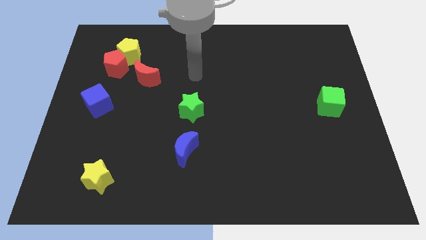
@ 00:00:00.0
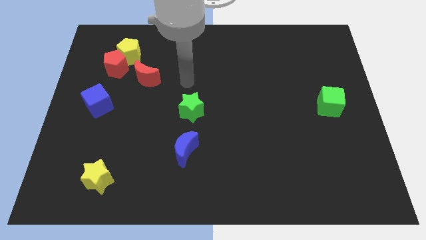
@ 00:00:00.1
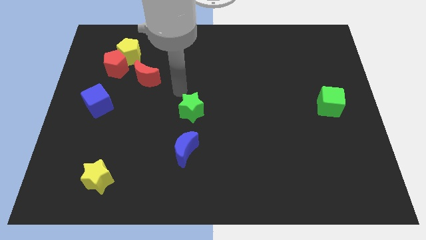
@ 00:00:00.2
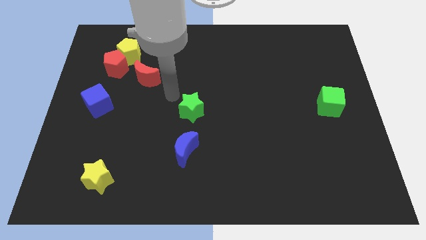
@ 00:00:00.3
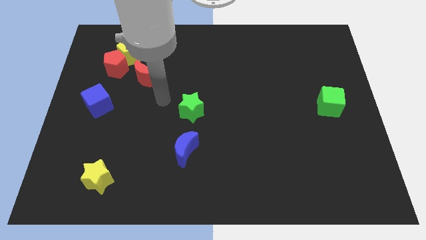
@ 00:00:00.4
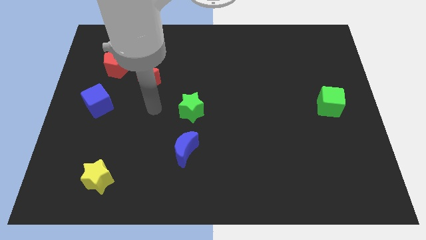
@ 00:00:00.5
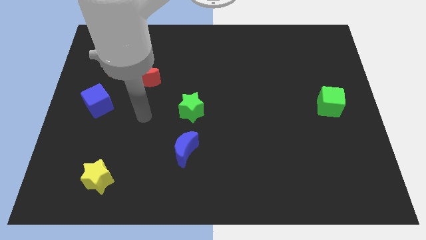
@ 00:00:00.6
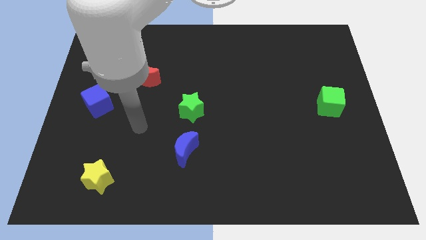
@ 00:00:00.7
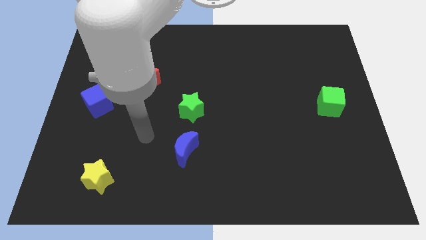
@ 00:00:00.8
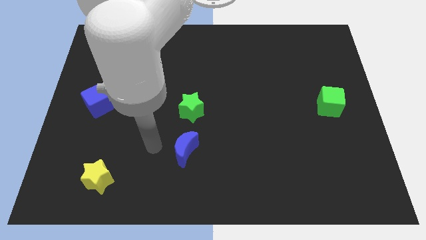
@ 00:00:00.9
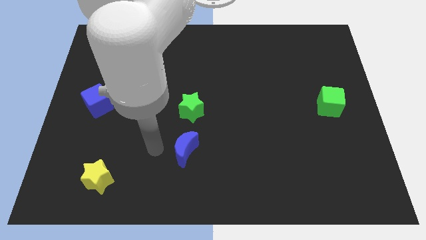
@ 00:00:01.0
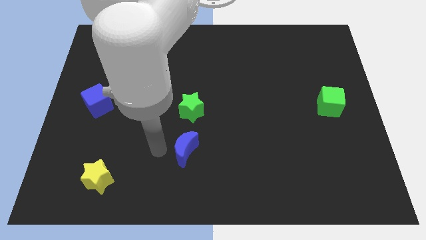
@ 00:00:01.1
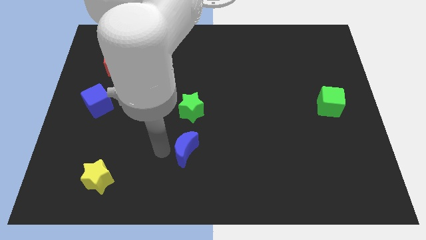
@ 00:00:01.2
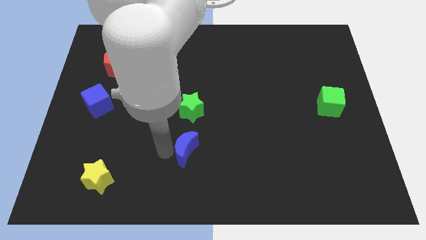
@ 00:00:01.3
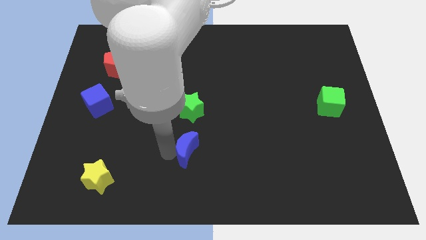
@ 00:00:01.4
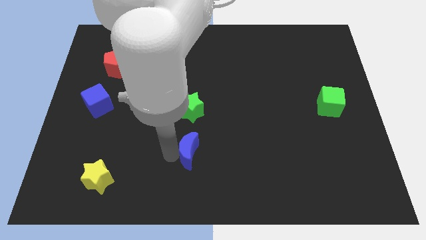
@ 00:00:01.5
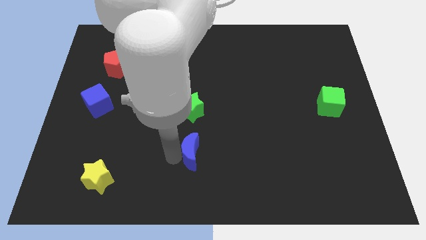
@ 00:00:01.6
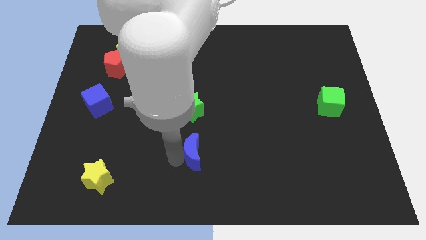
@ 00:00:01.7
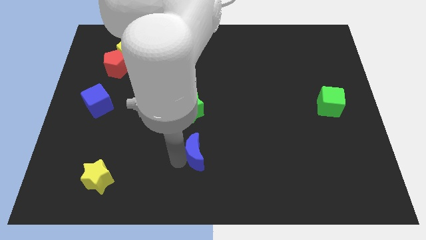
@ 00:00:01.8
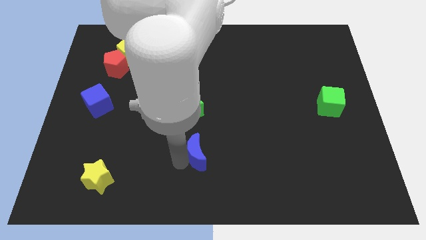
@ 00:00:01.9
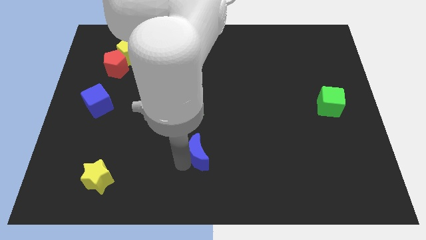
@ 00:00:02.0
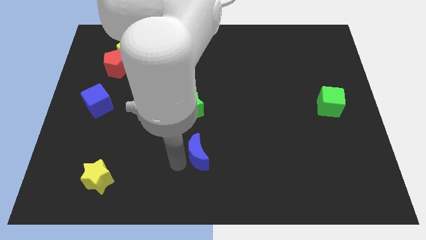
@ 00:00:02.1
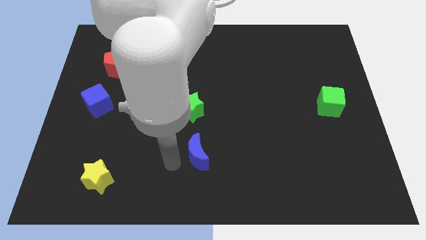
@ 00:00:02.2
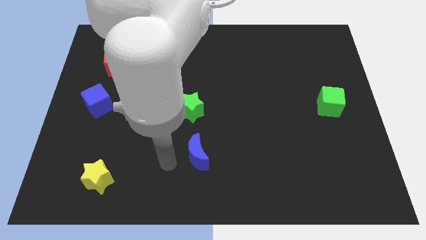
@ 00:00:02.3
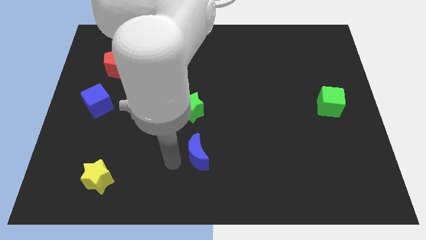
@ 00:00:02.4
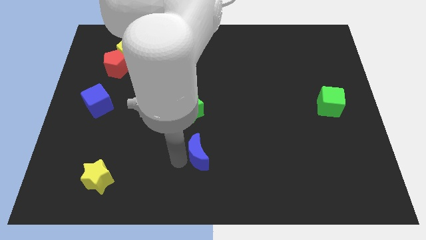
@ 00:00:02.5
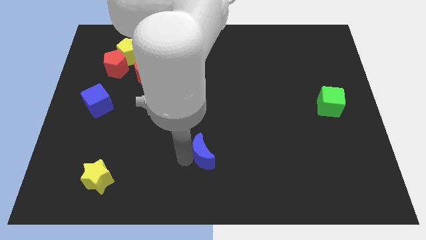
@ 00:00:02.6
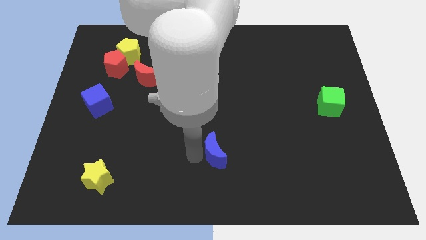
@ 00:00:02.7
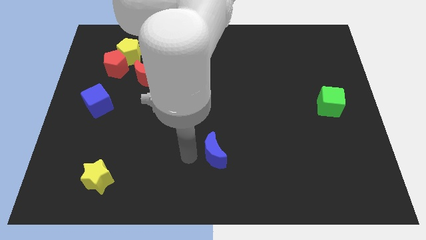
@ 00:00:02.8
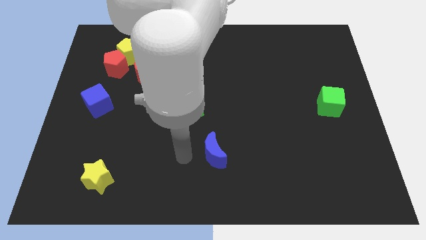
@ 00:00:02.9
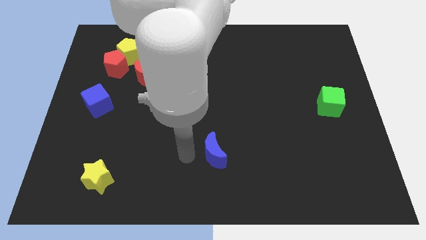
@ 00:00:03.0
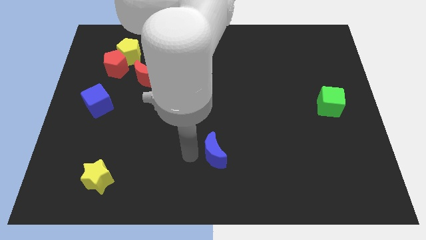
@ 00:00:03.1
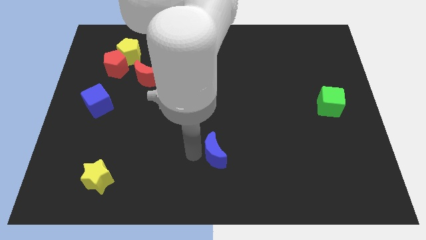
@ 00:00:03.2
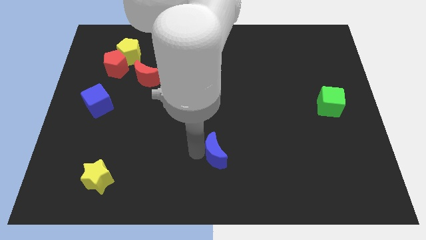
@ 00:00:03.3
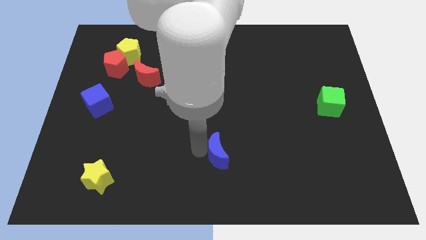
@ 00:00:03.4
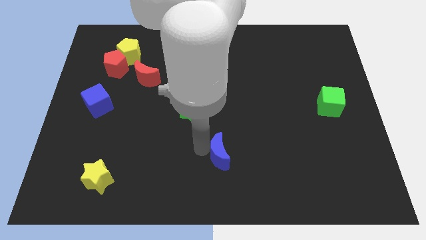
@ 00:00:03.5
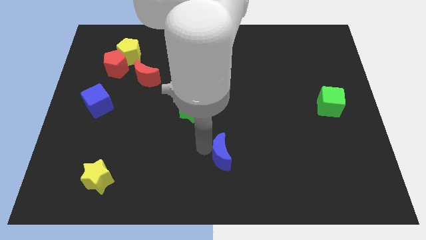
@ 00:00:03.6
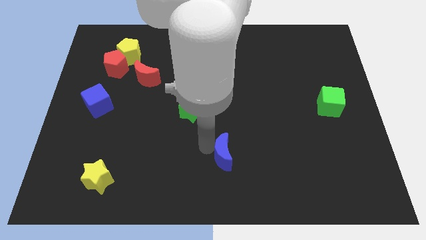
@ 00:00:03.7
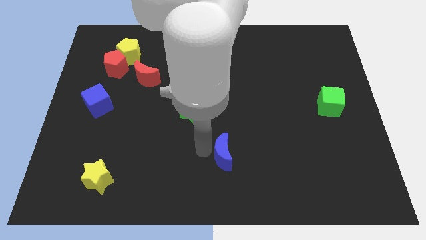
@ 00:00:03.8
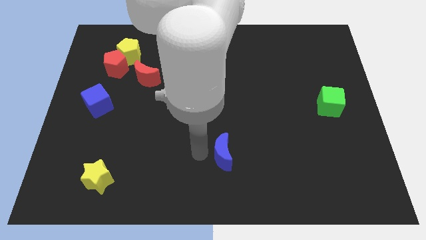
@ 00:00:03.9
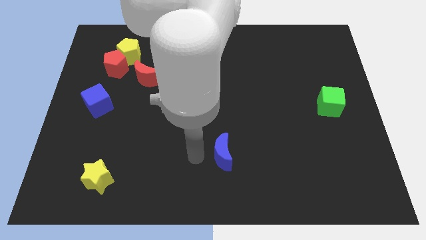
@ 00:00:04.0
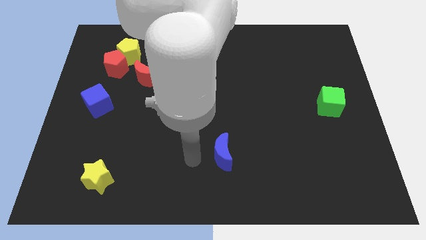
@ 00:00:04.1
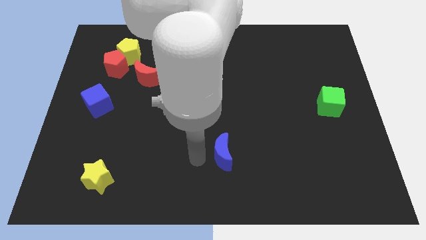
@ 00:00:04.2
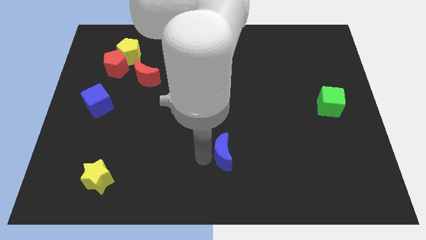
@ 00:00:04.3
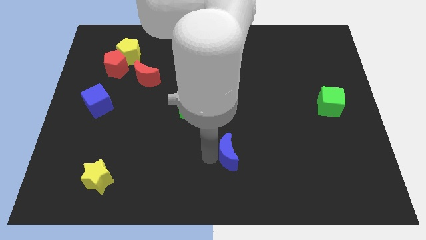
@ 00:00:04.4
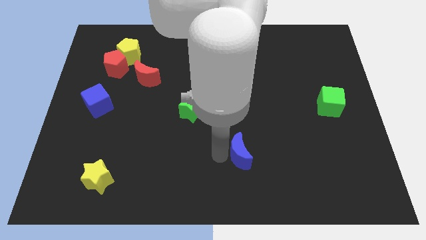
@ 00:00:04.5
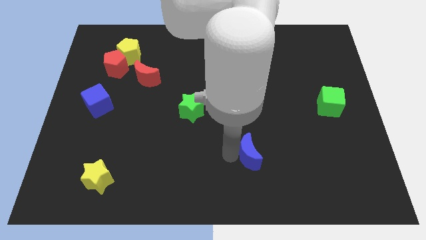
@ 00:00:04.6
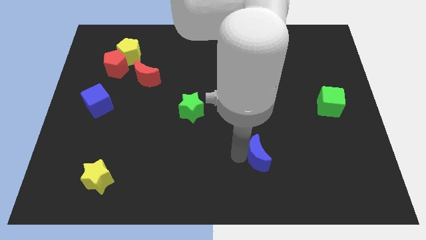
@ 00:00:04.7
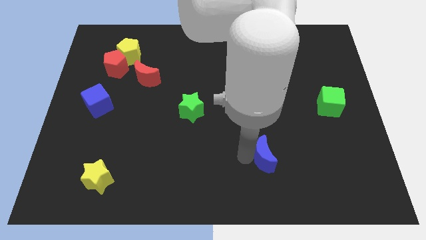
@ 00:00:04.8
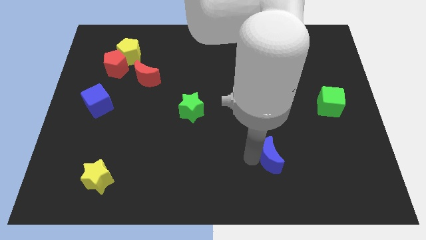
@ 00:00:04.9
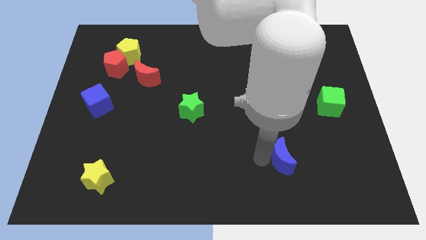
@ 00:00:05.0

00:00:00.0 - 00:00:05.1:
move the blue moon right

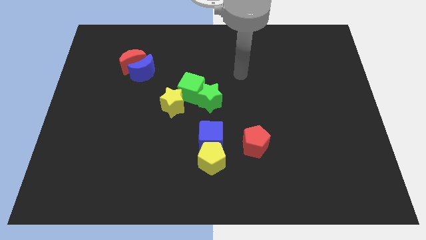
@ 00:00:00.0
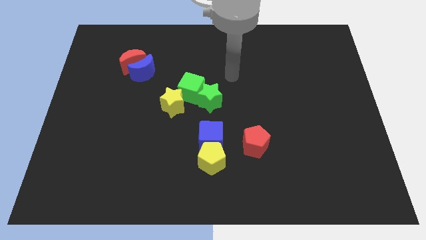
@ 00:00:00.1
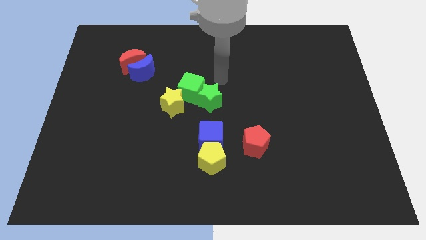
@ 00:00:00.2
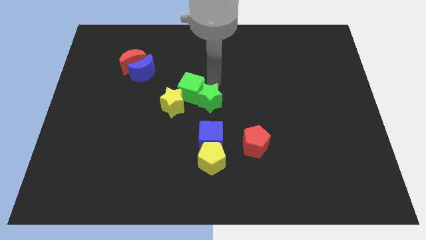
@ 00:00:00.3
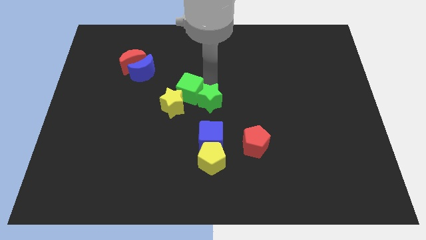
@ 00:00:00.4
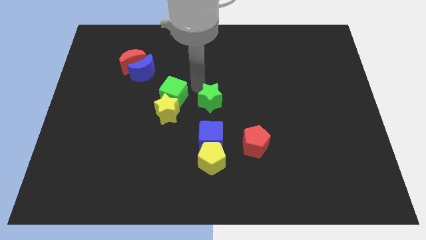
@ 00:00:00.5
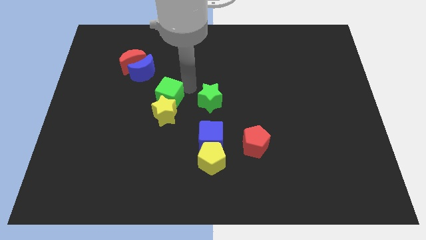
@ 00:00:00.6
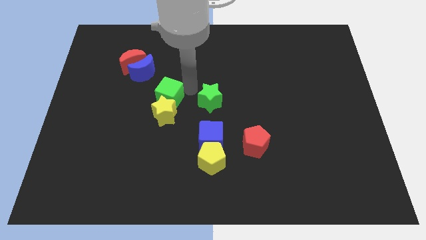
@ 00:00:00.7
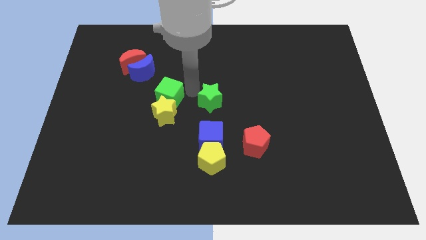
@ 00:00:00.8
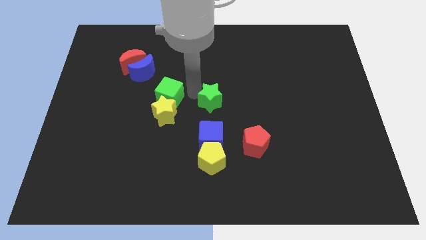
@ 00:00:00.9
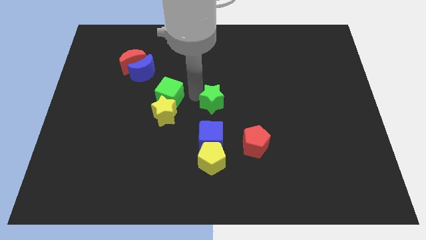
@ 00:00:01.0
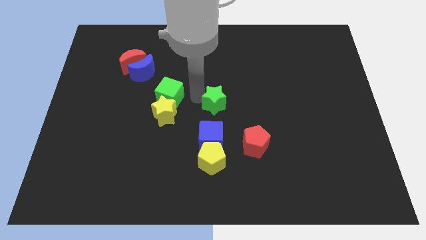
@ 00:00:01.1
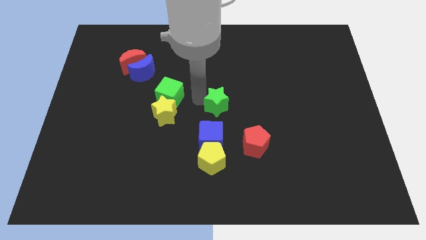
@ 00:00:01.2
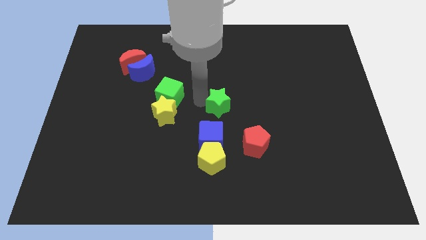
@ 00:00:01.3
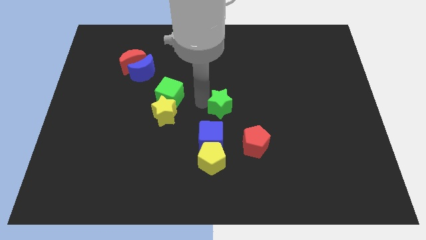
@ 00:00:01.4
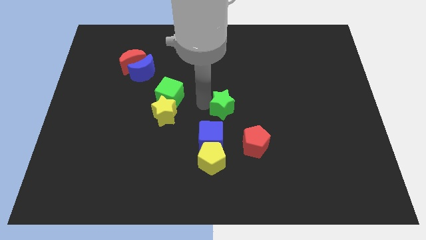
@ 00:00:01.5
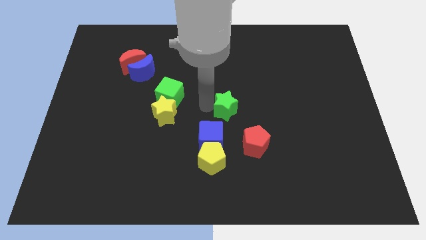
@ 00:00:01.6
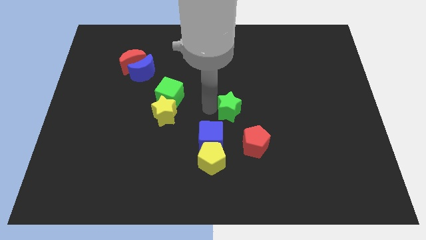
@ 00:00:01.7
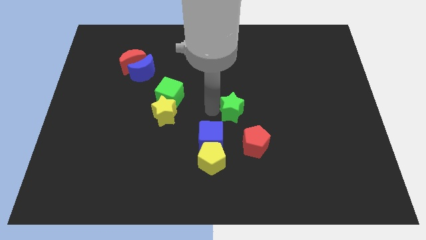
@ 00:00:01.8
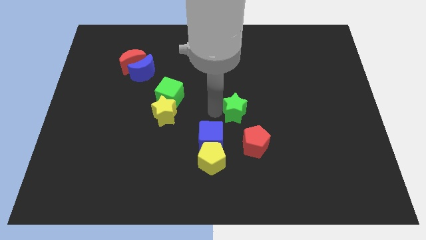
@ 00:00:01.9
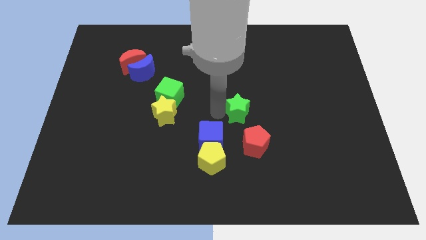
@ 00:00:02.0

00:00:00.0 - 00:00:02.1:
slide the green star a bit diagonally down and to the right

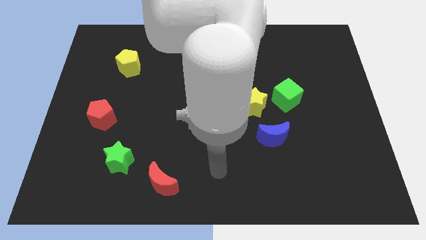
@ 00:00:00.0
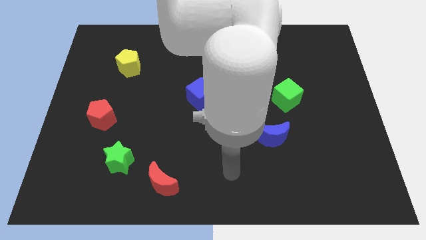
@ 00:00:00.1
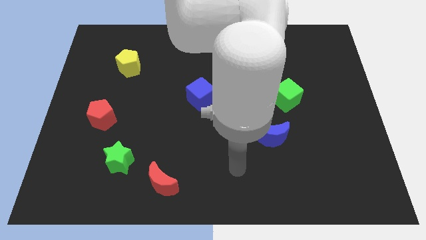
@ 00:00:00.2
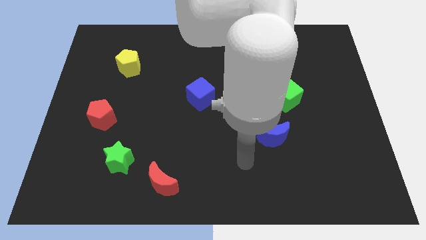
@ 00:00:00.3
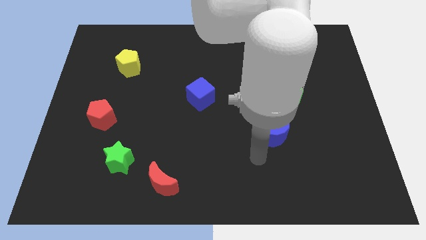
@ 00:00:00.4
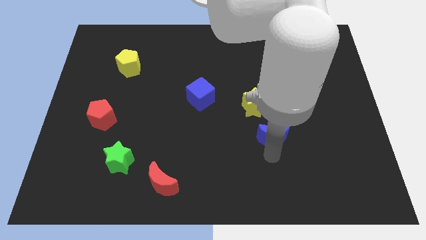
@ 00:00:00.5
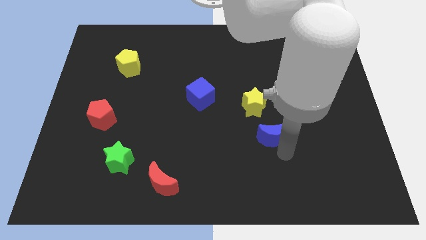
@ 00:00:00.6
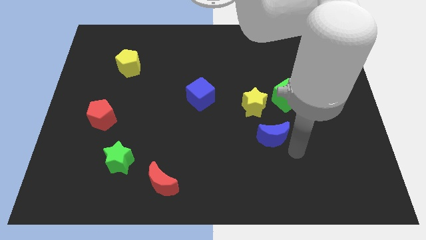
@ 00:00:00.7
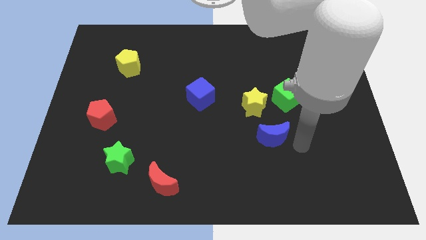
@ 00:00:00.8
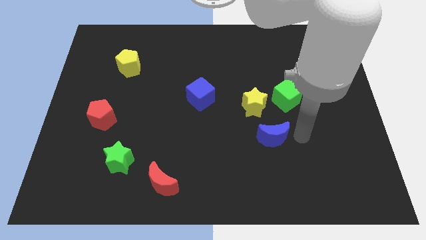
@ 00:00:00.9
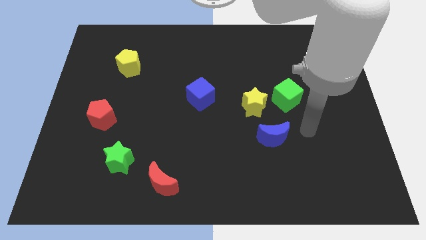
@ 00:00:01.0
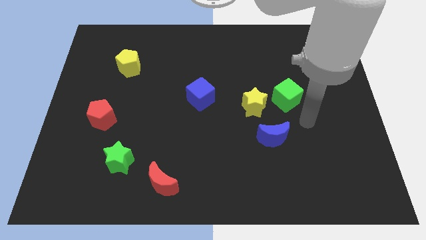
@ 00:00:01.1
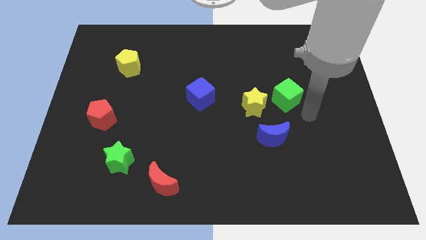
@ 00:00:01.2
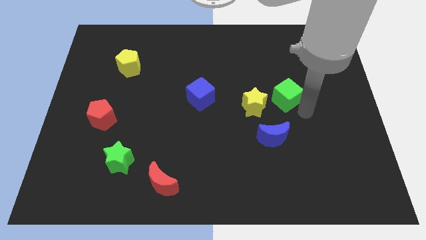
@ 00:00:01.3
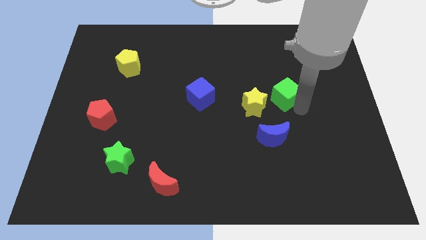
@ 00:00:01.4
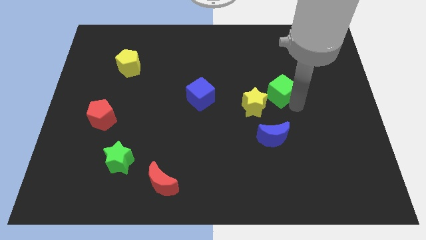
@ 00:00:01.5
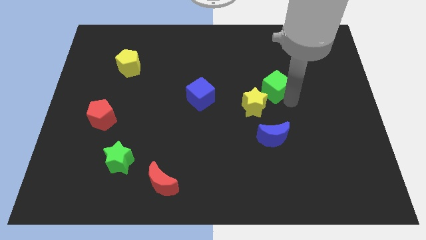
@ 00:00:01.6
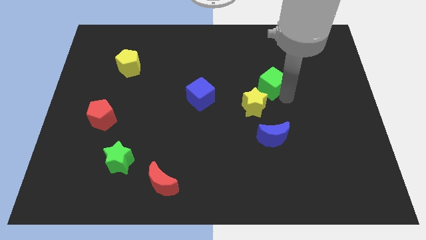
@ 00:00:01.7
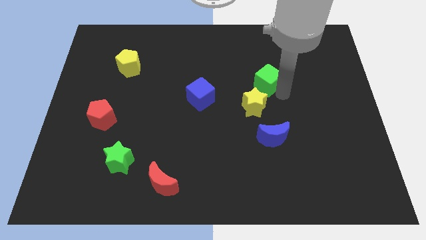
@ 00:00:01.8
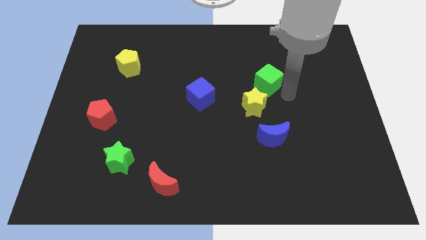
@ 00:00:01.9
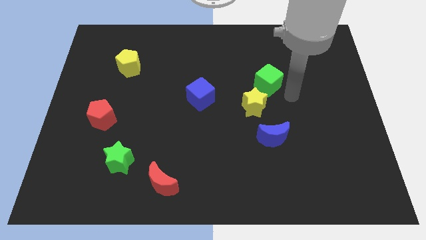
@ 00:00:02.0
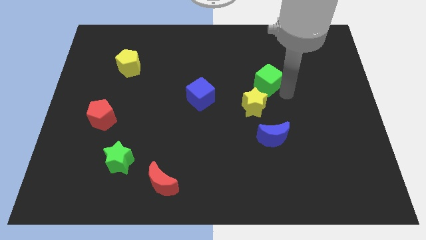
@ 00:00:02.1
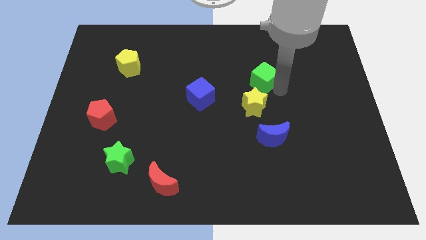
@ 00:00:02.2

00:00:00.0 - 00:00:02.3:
slide the green cube upwards and then left a little bit
